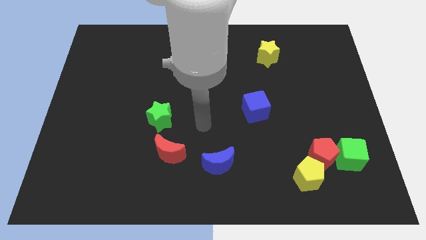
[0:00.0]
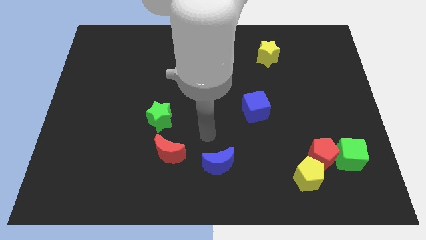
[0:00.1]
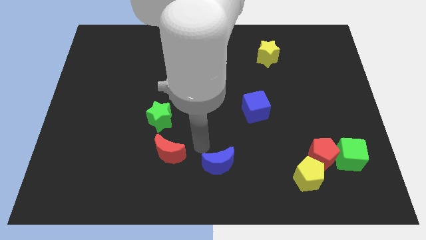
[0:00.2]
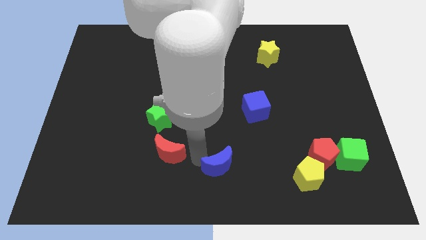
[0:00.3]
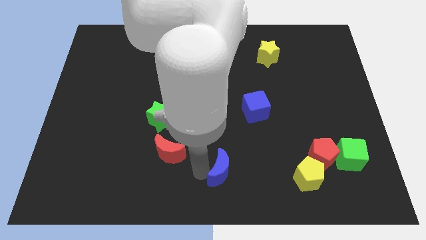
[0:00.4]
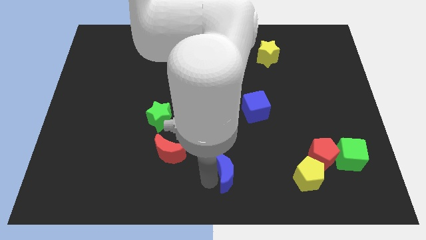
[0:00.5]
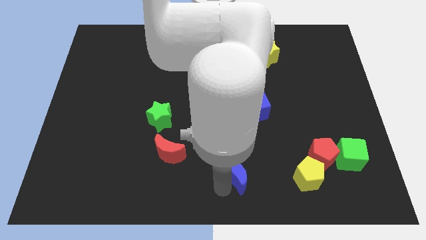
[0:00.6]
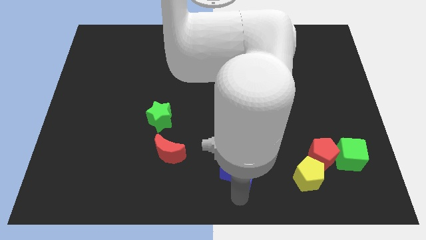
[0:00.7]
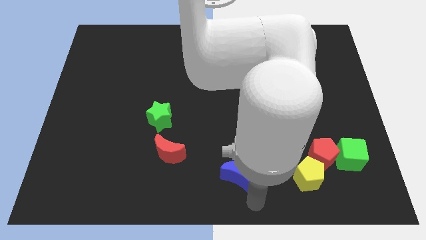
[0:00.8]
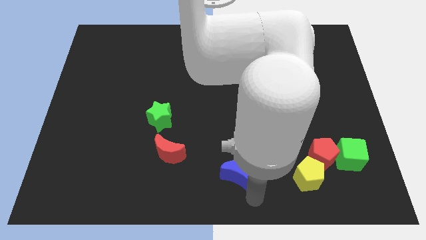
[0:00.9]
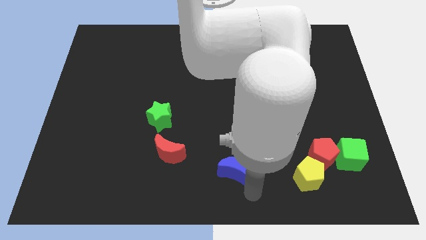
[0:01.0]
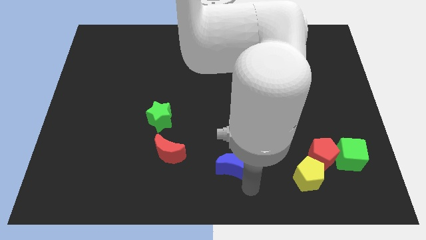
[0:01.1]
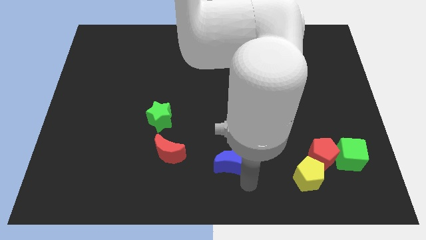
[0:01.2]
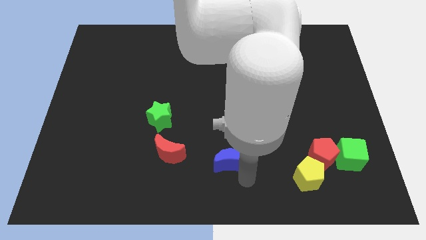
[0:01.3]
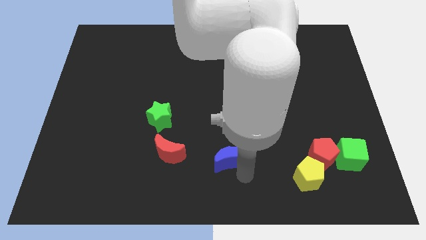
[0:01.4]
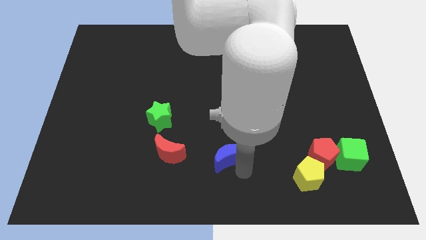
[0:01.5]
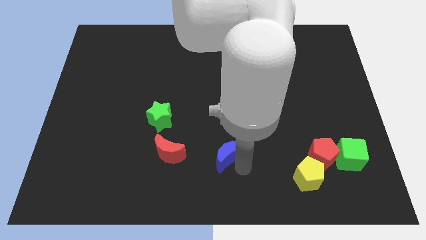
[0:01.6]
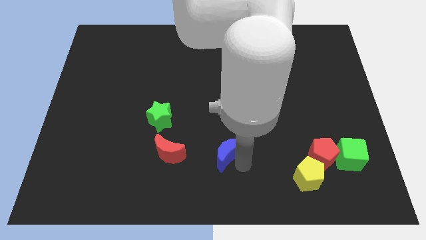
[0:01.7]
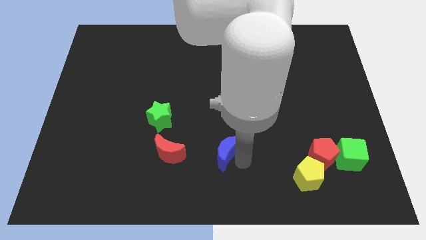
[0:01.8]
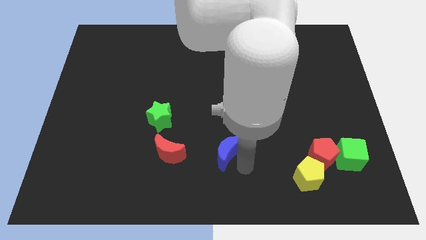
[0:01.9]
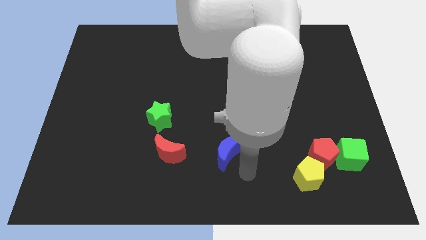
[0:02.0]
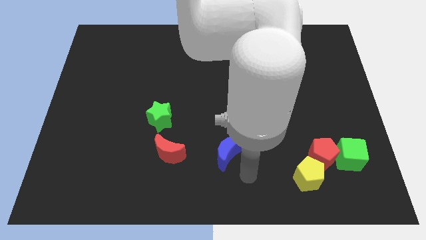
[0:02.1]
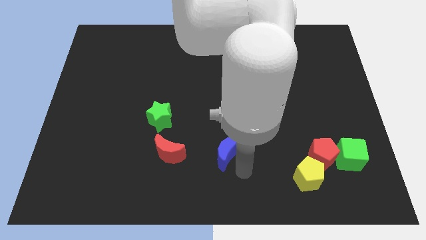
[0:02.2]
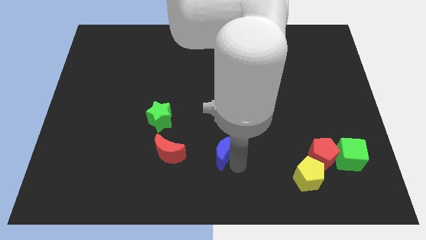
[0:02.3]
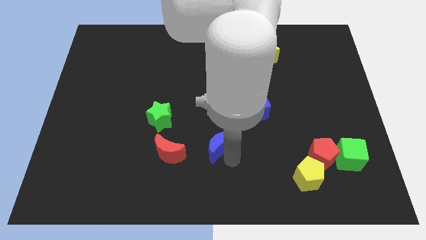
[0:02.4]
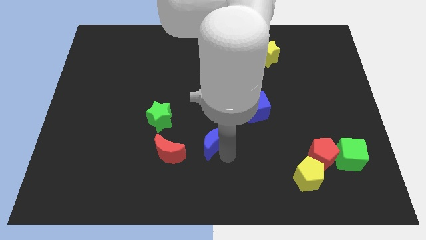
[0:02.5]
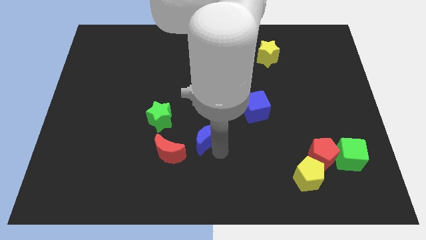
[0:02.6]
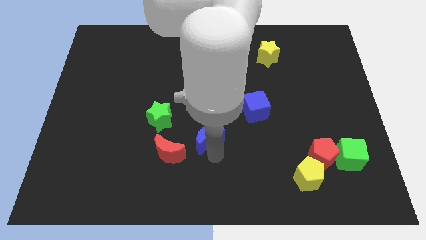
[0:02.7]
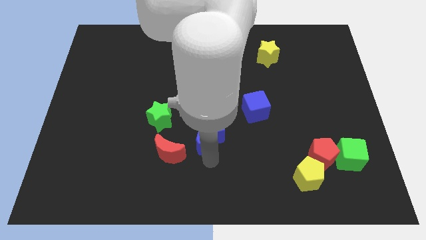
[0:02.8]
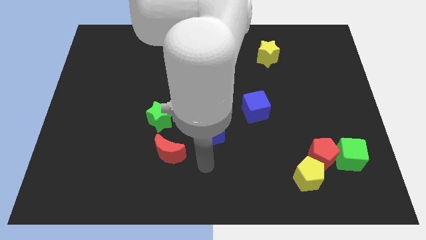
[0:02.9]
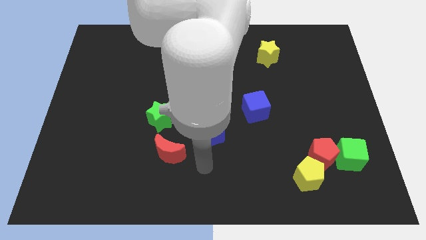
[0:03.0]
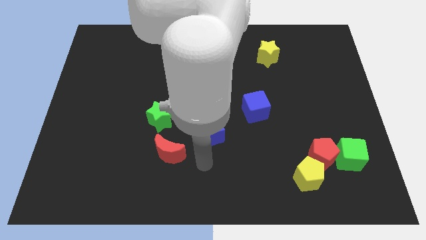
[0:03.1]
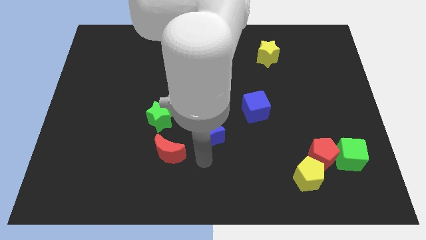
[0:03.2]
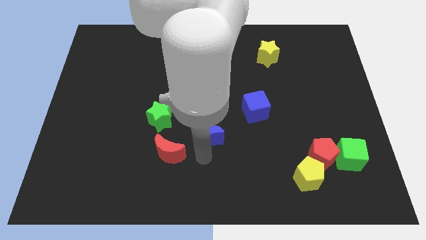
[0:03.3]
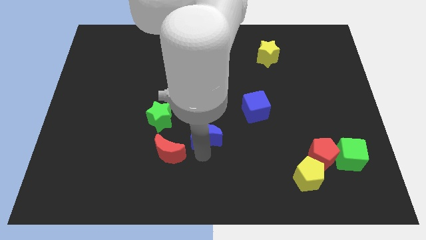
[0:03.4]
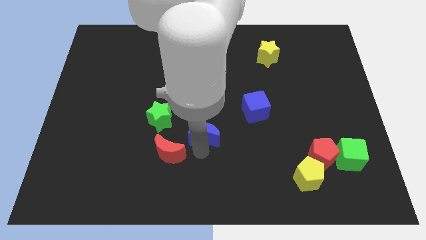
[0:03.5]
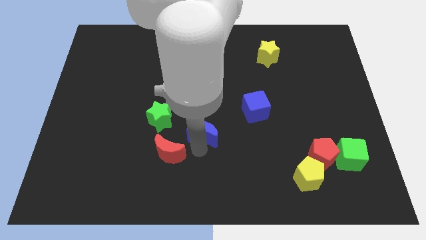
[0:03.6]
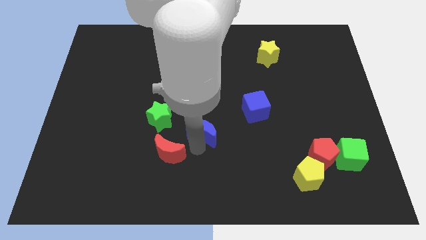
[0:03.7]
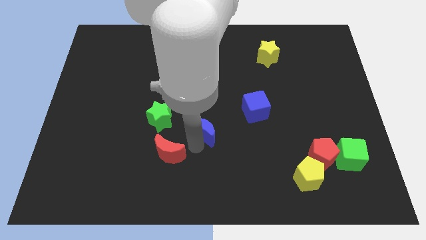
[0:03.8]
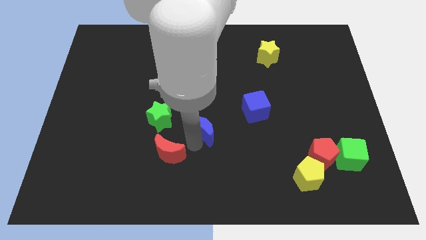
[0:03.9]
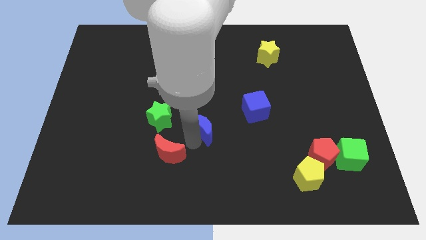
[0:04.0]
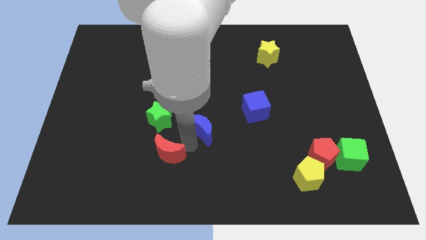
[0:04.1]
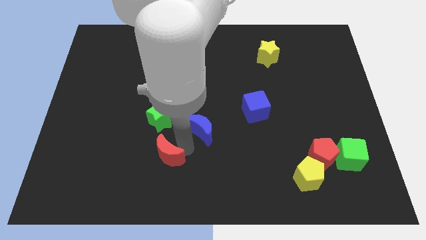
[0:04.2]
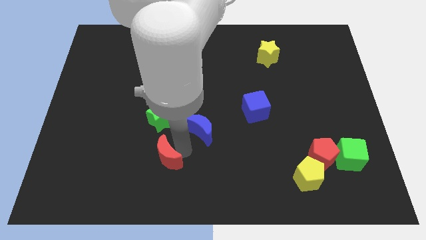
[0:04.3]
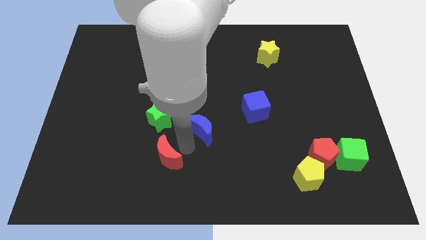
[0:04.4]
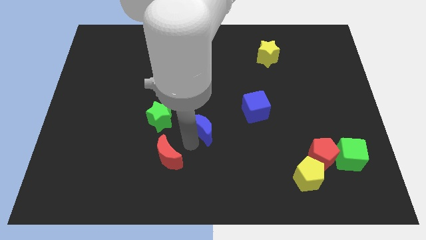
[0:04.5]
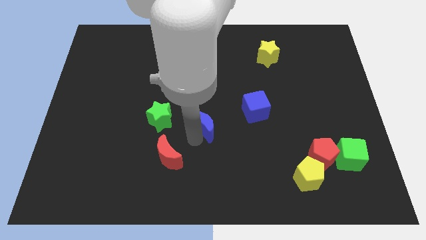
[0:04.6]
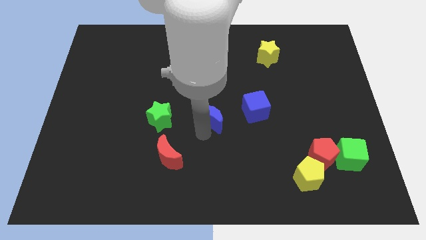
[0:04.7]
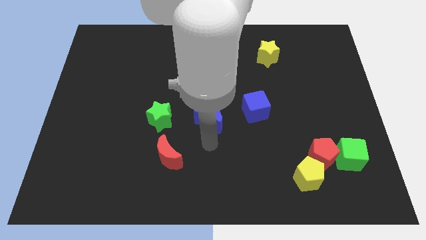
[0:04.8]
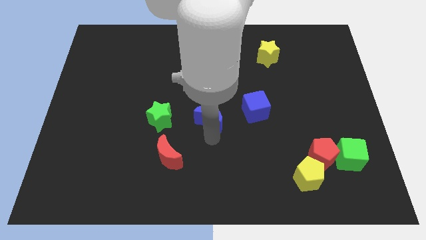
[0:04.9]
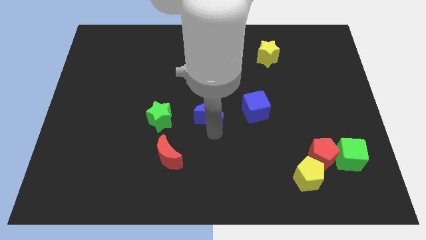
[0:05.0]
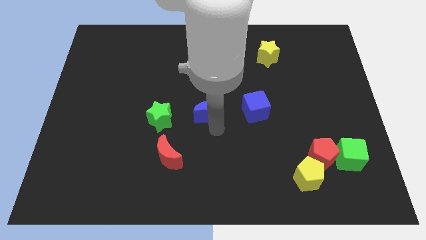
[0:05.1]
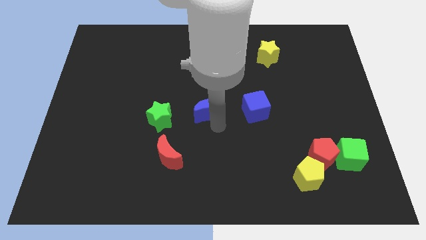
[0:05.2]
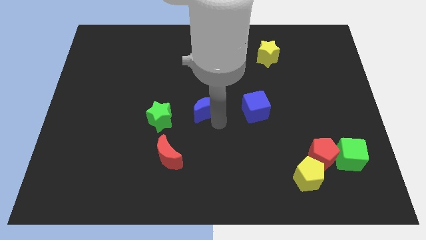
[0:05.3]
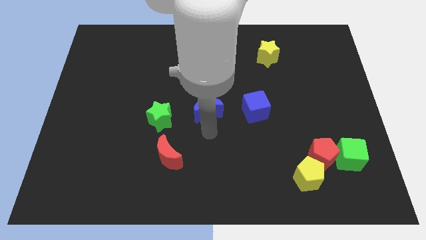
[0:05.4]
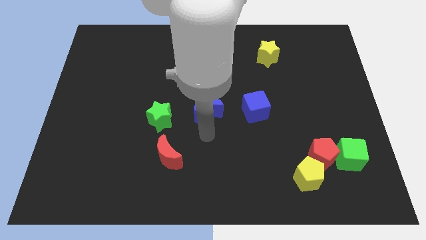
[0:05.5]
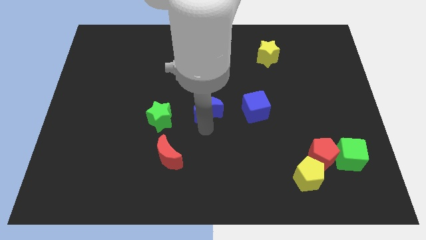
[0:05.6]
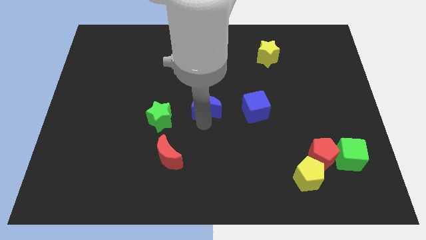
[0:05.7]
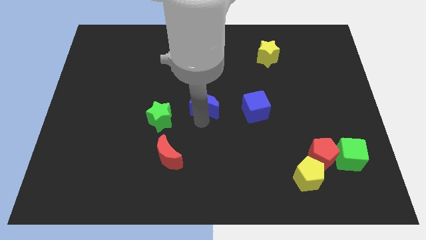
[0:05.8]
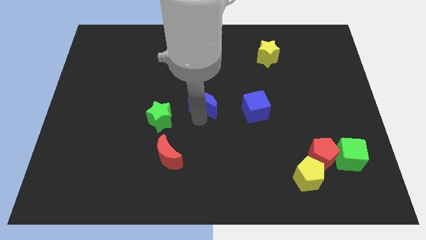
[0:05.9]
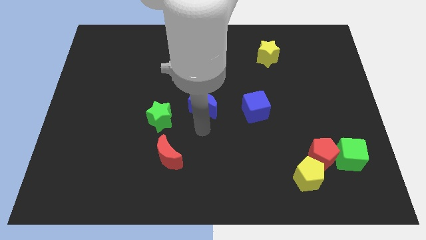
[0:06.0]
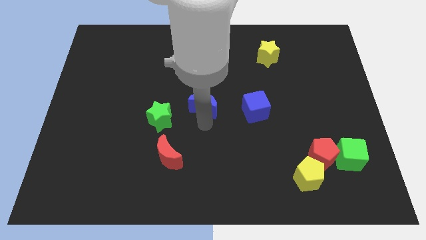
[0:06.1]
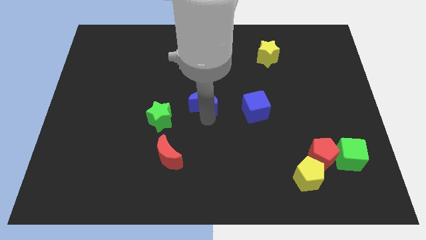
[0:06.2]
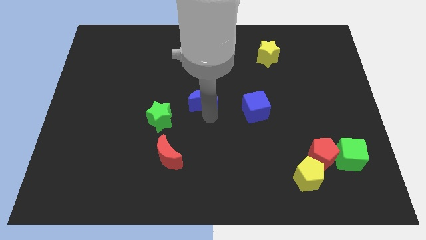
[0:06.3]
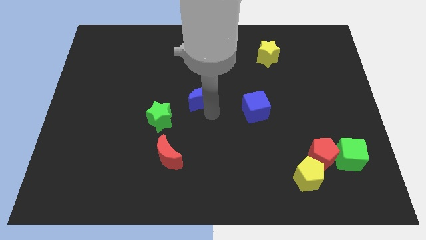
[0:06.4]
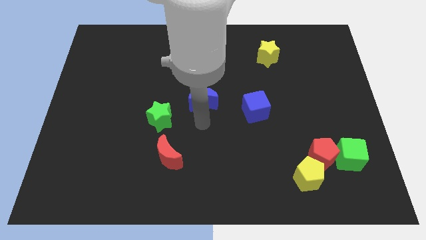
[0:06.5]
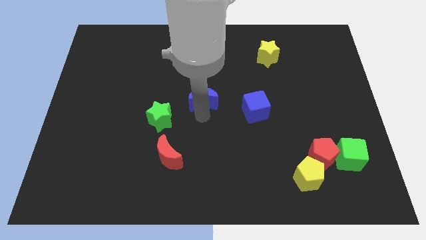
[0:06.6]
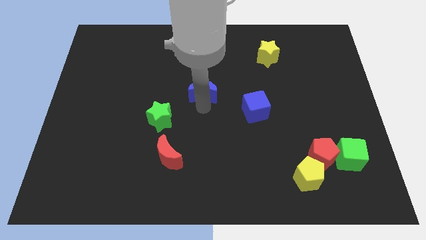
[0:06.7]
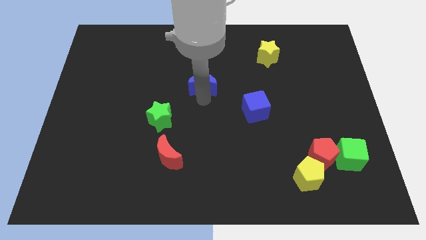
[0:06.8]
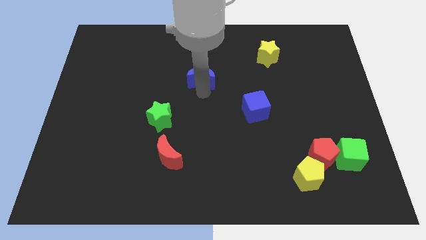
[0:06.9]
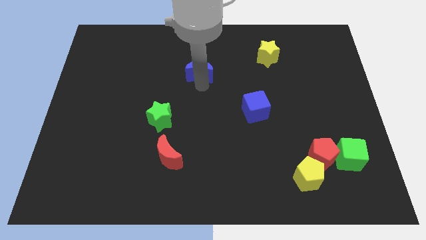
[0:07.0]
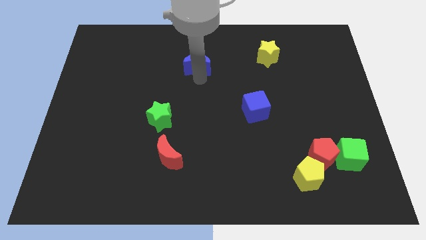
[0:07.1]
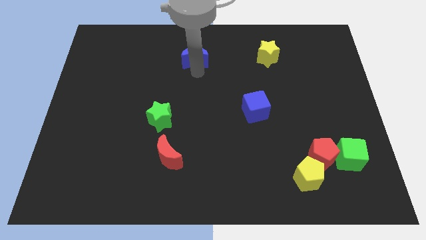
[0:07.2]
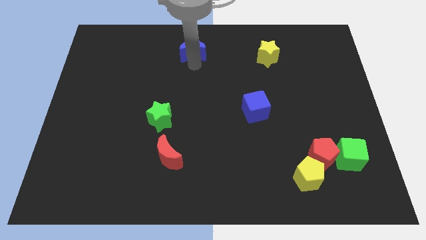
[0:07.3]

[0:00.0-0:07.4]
push the blue moon to the top side
